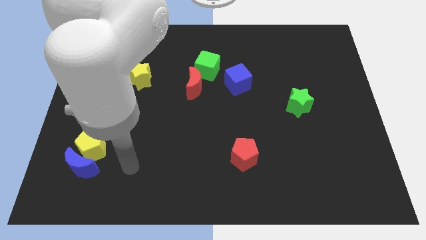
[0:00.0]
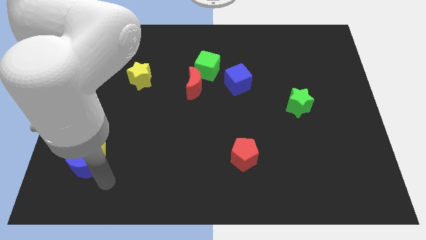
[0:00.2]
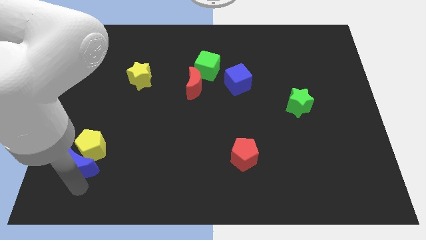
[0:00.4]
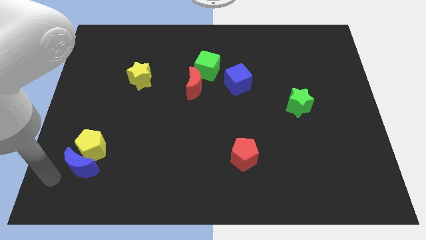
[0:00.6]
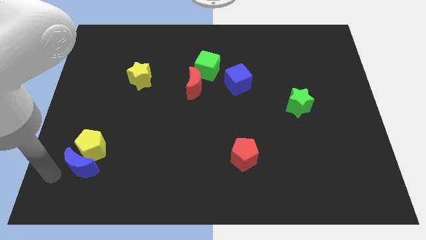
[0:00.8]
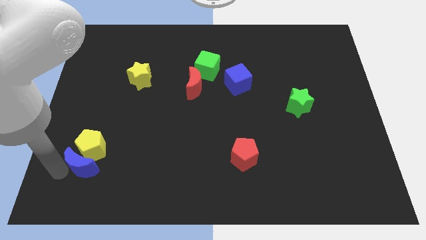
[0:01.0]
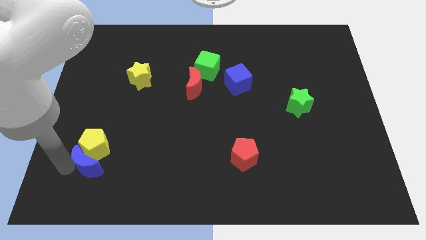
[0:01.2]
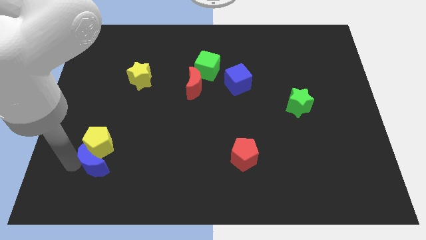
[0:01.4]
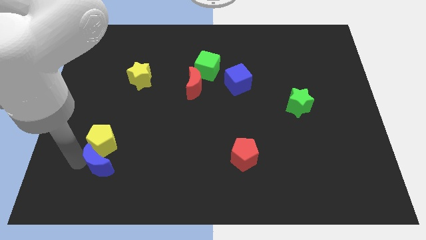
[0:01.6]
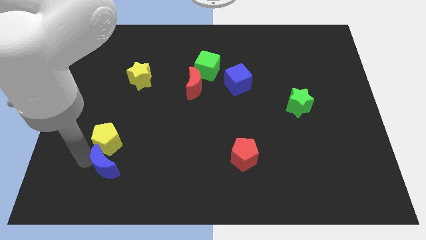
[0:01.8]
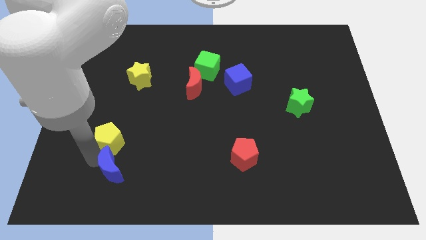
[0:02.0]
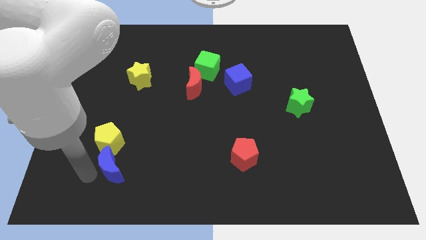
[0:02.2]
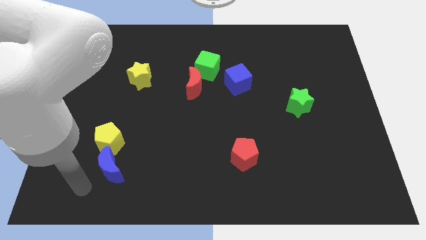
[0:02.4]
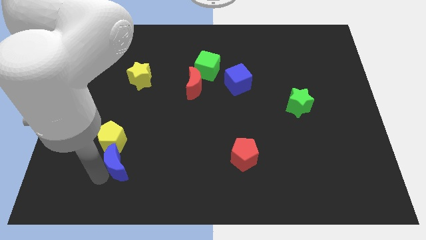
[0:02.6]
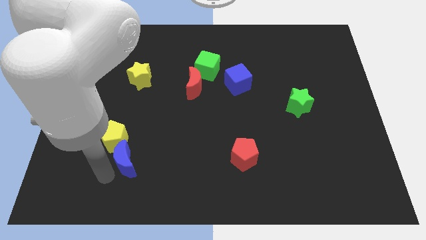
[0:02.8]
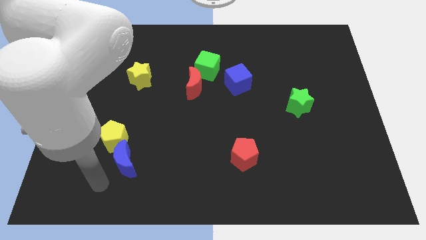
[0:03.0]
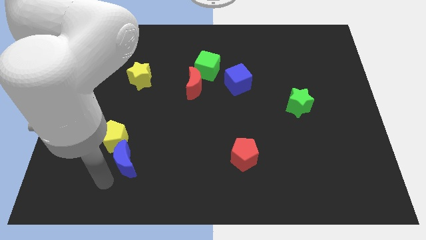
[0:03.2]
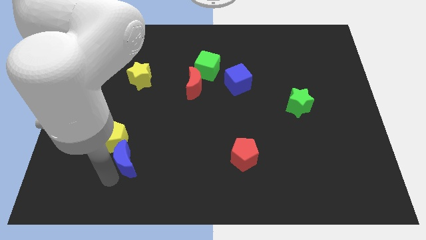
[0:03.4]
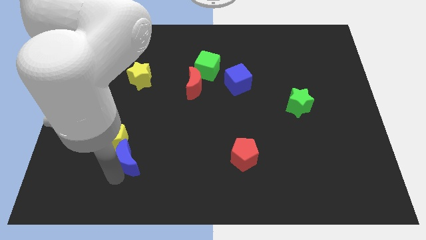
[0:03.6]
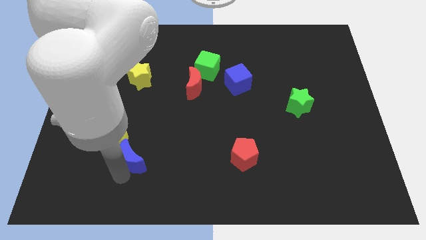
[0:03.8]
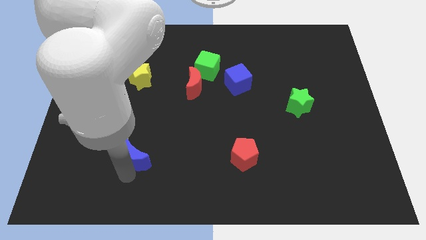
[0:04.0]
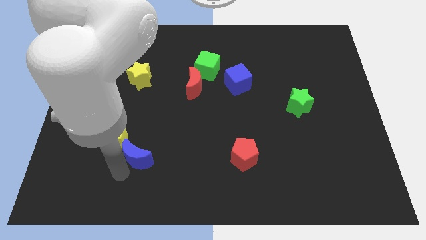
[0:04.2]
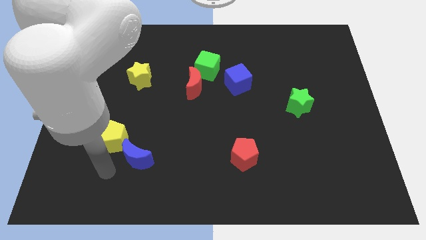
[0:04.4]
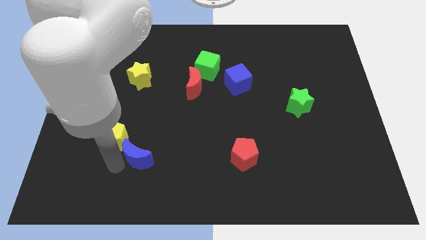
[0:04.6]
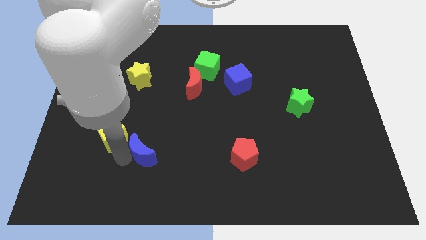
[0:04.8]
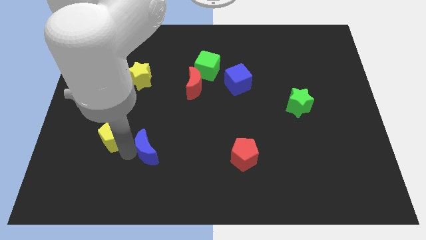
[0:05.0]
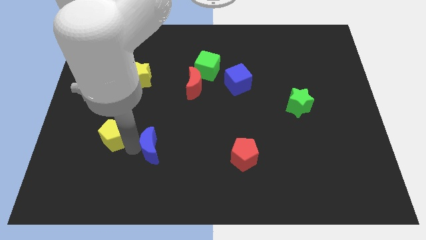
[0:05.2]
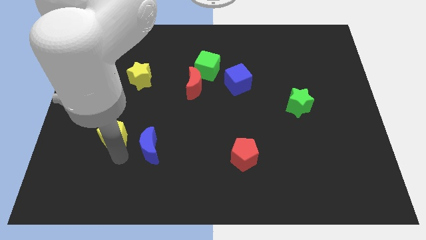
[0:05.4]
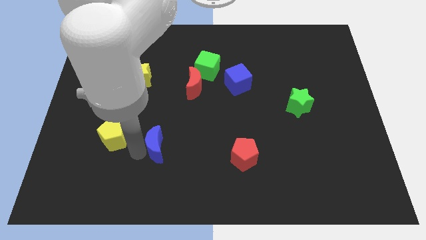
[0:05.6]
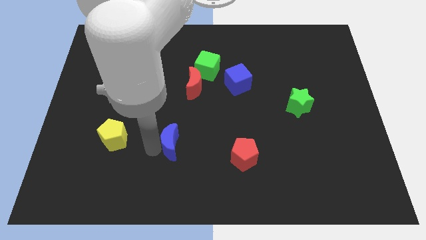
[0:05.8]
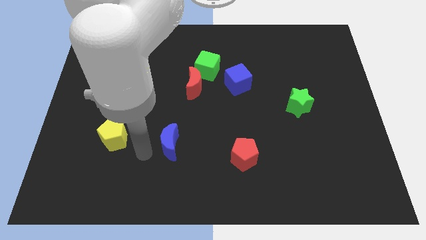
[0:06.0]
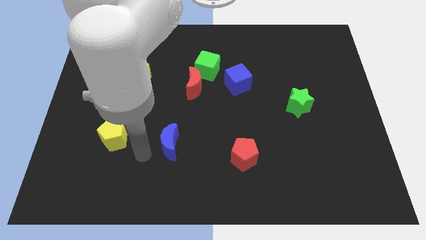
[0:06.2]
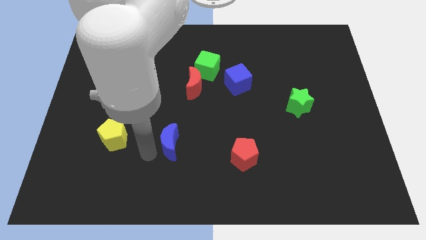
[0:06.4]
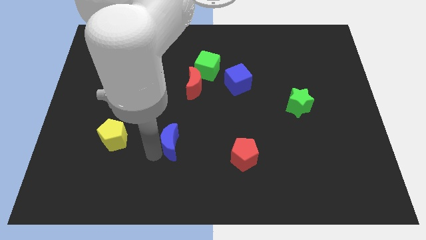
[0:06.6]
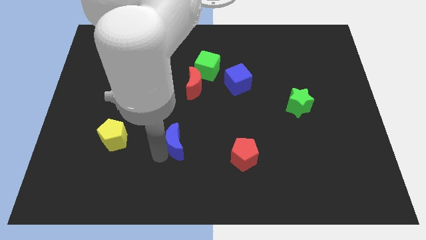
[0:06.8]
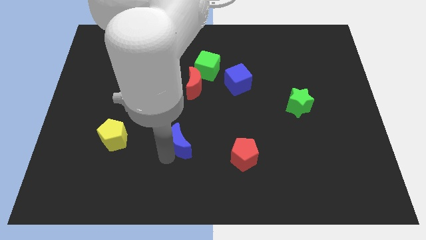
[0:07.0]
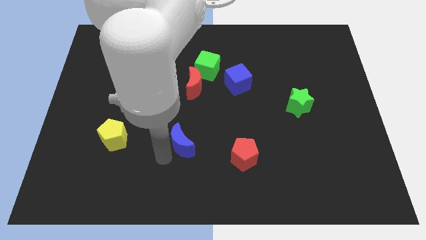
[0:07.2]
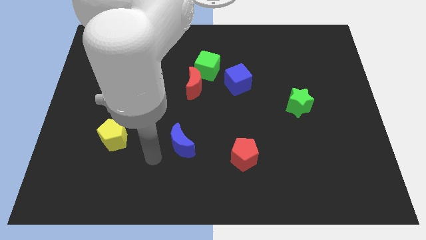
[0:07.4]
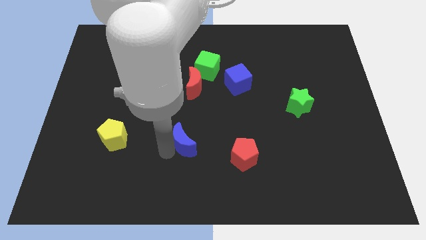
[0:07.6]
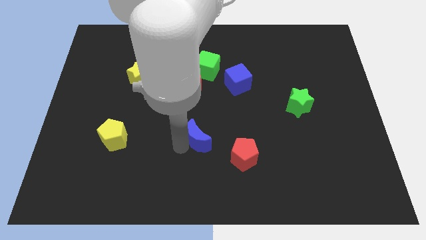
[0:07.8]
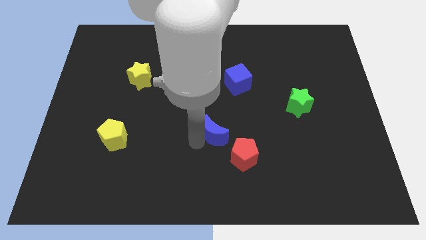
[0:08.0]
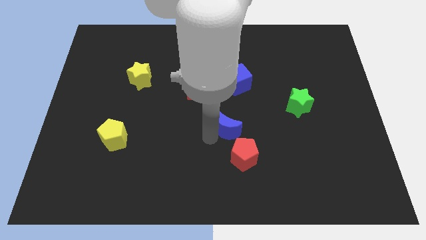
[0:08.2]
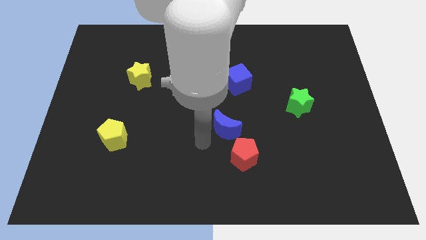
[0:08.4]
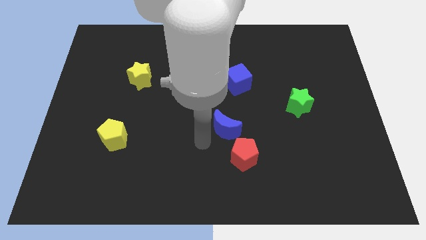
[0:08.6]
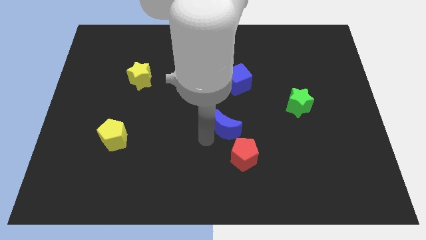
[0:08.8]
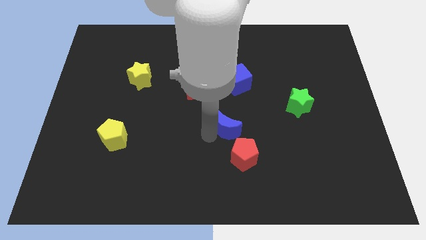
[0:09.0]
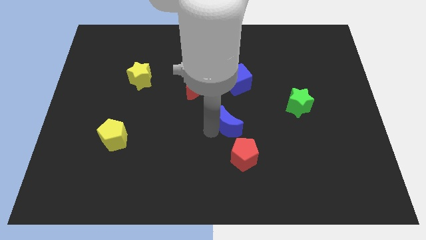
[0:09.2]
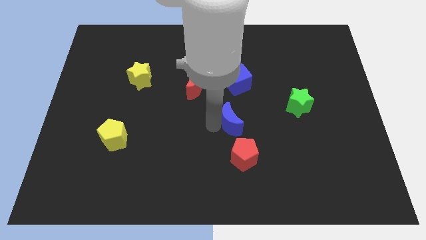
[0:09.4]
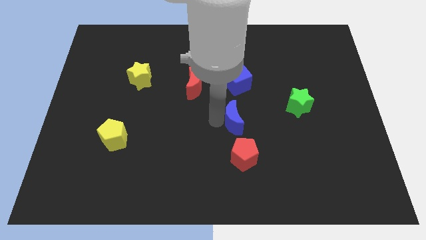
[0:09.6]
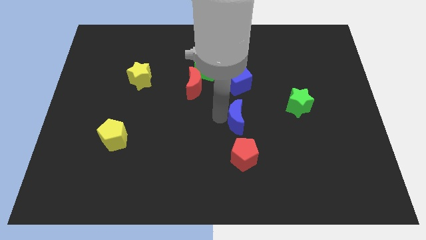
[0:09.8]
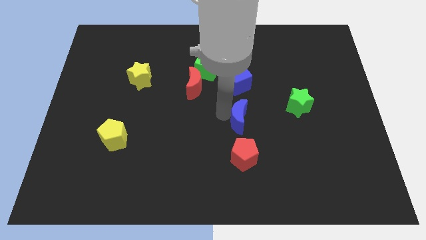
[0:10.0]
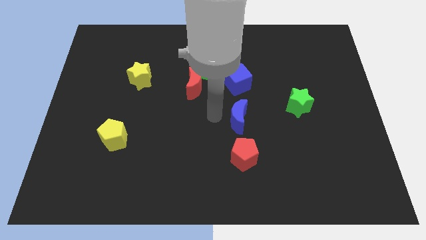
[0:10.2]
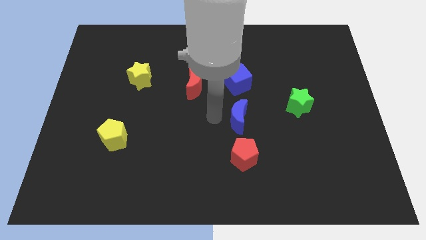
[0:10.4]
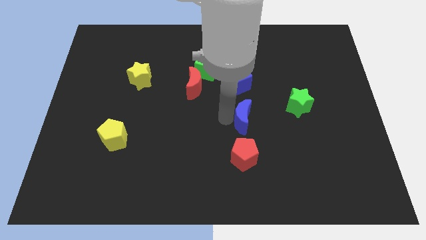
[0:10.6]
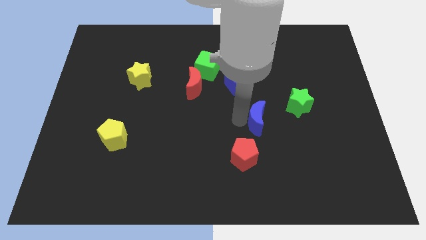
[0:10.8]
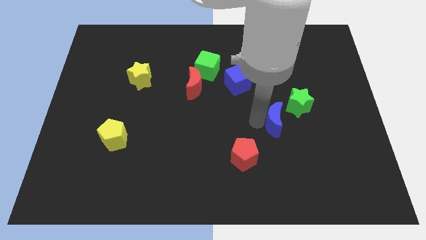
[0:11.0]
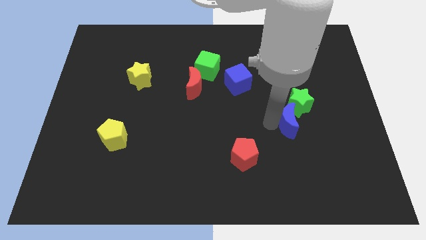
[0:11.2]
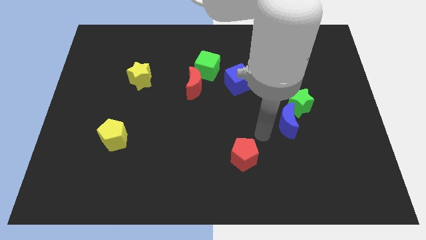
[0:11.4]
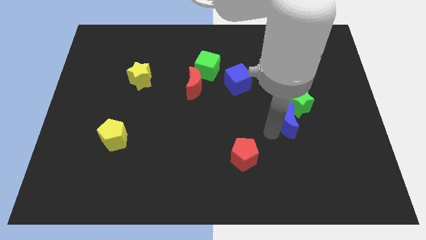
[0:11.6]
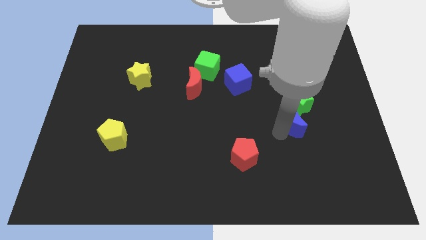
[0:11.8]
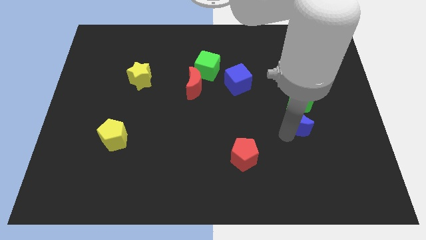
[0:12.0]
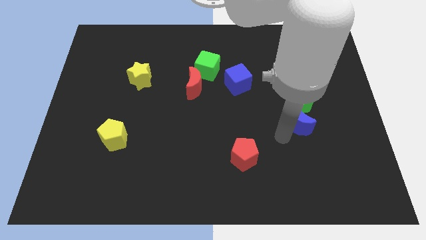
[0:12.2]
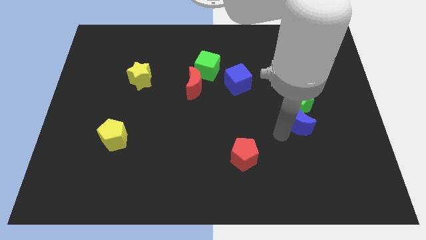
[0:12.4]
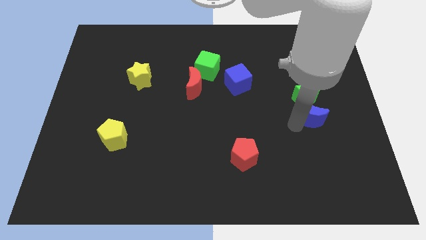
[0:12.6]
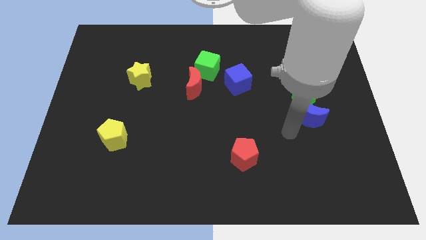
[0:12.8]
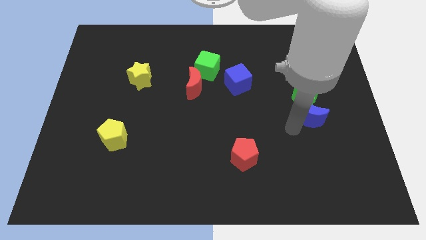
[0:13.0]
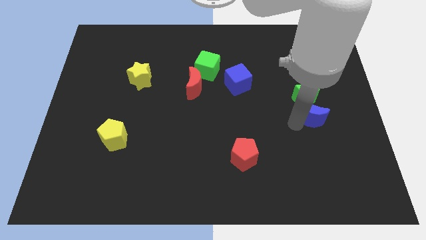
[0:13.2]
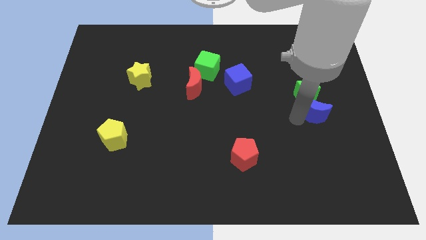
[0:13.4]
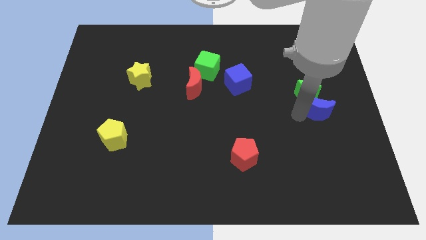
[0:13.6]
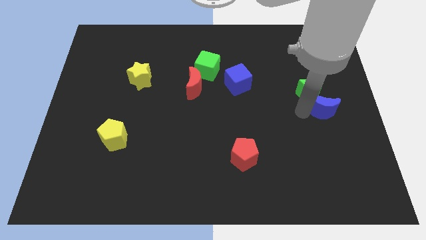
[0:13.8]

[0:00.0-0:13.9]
slide the blue moon to the center right
